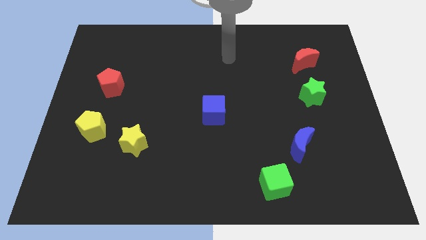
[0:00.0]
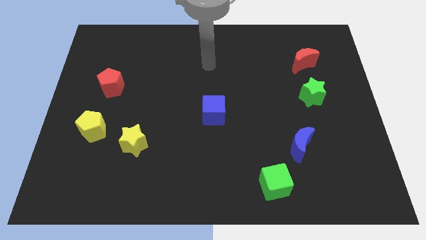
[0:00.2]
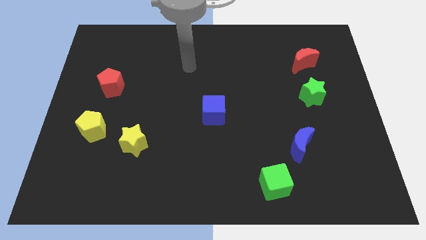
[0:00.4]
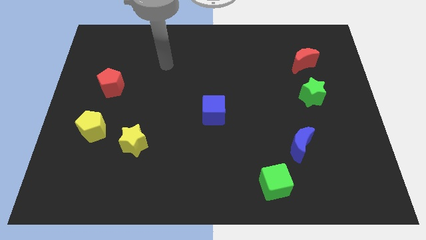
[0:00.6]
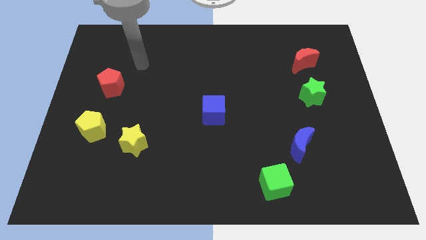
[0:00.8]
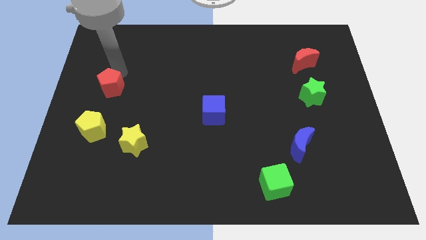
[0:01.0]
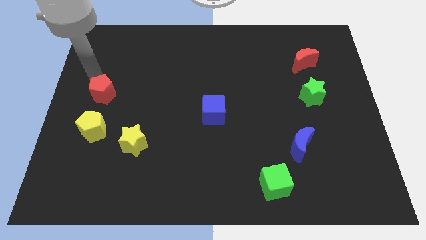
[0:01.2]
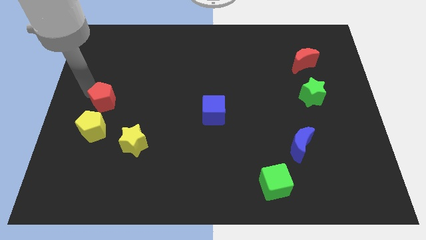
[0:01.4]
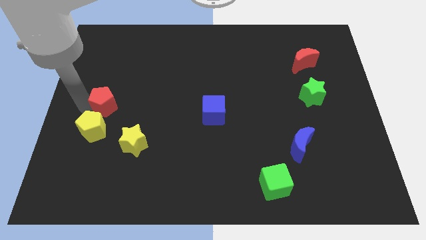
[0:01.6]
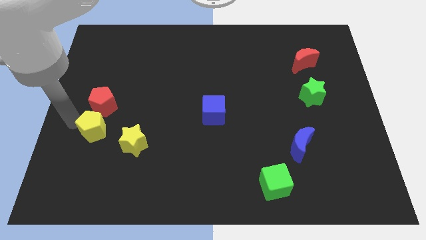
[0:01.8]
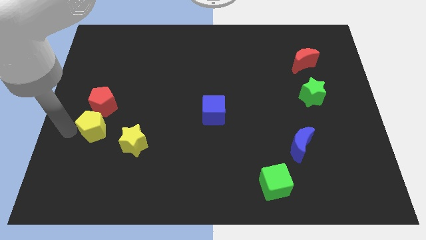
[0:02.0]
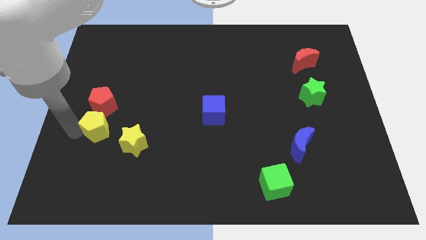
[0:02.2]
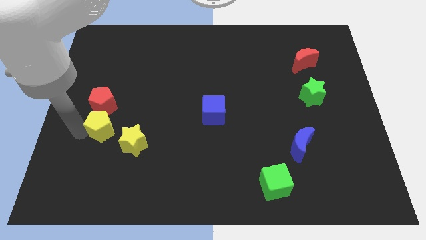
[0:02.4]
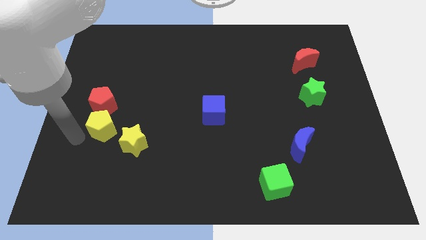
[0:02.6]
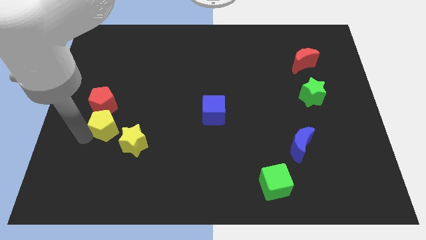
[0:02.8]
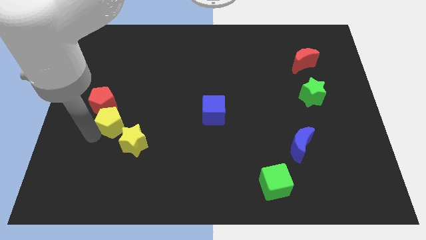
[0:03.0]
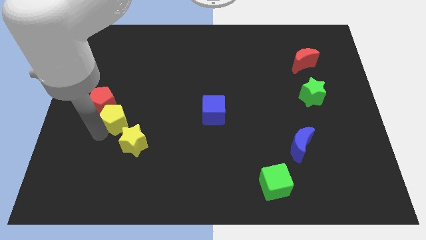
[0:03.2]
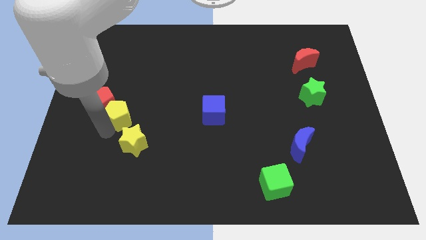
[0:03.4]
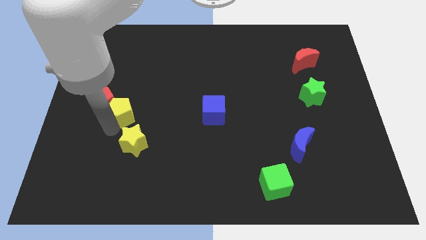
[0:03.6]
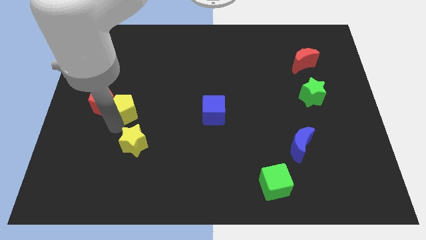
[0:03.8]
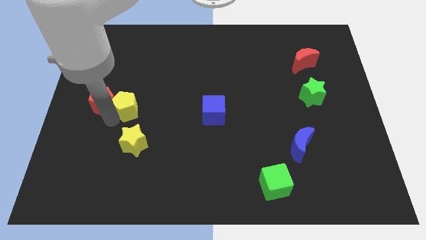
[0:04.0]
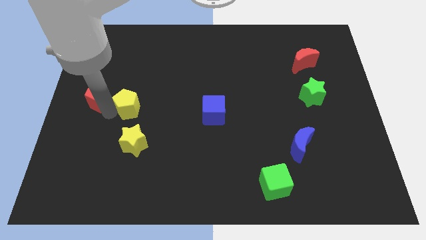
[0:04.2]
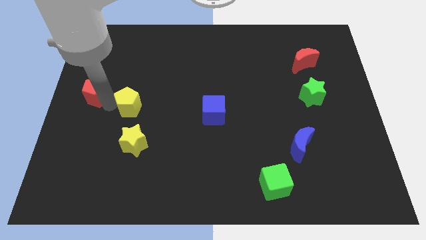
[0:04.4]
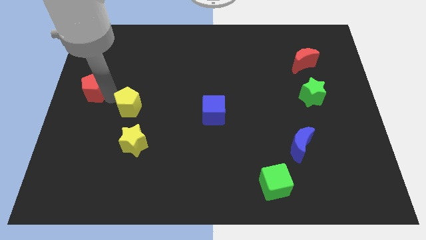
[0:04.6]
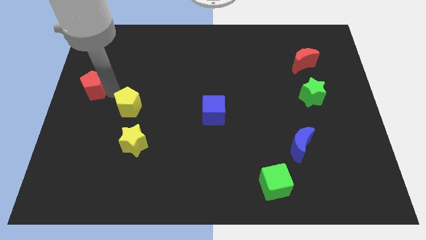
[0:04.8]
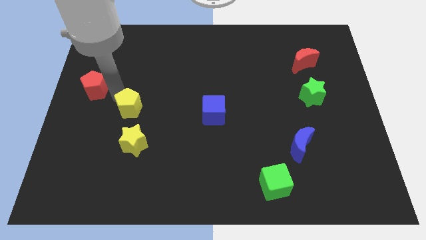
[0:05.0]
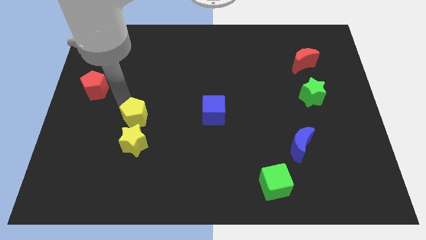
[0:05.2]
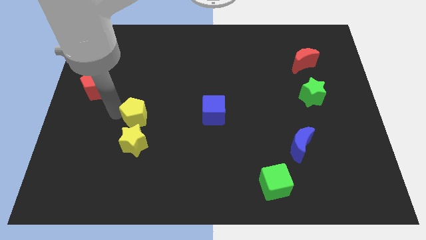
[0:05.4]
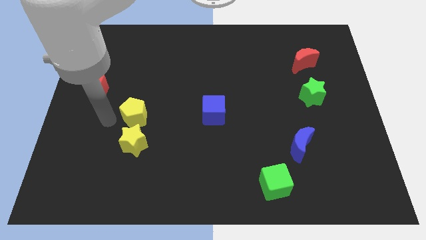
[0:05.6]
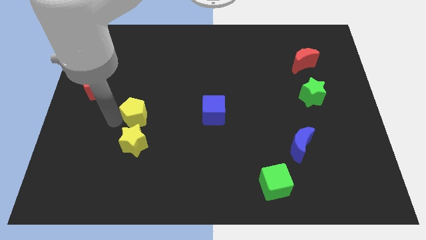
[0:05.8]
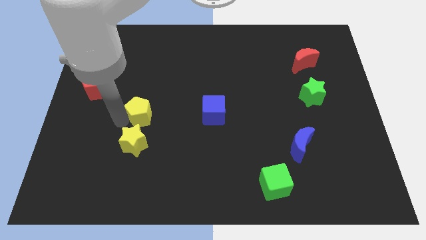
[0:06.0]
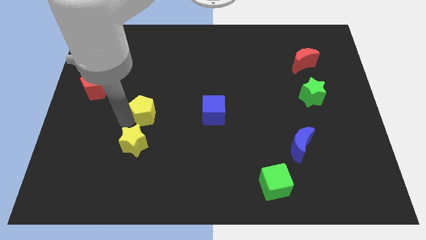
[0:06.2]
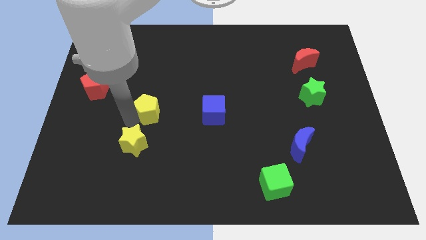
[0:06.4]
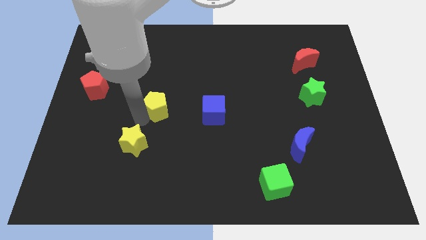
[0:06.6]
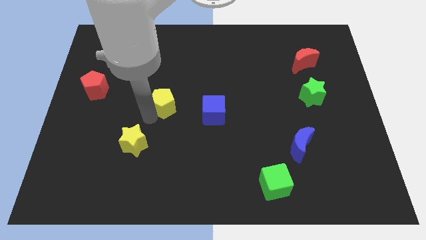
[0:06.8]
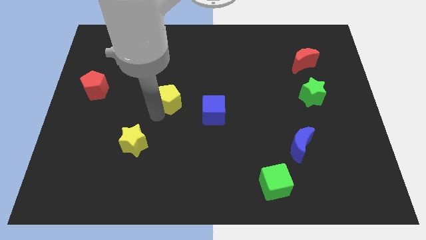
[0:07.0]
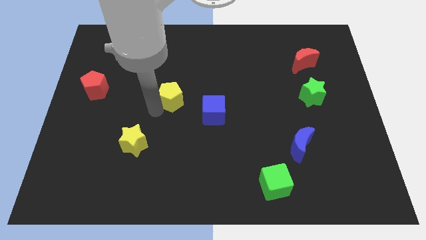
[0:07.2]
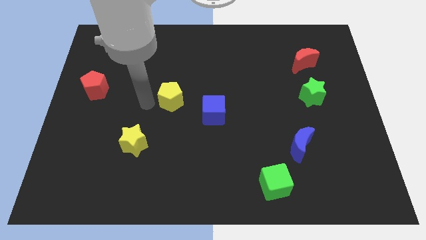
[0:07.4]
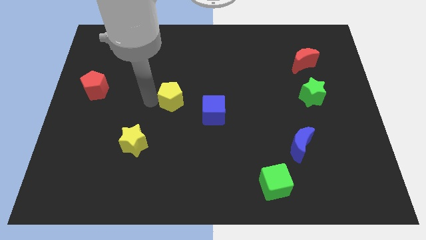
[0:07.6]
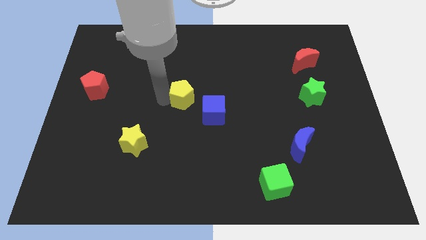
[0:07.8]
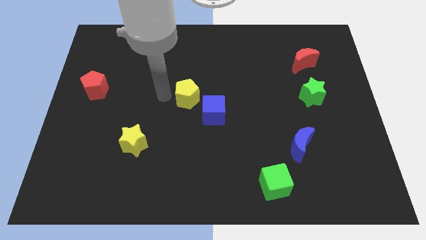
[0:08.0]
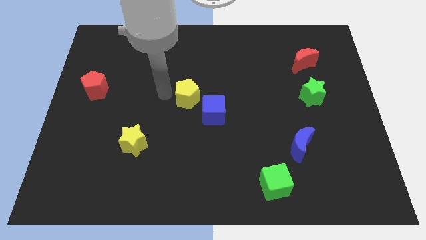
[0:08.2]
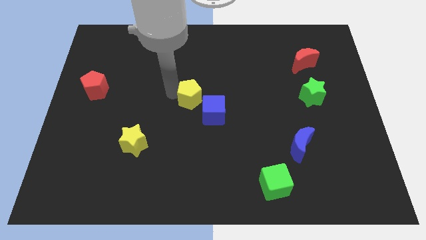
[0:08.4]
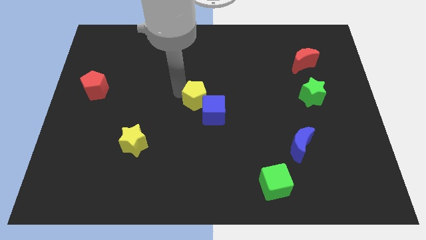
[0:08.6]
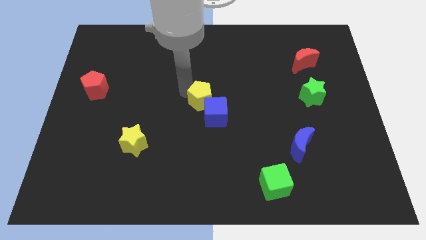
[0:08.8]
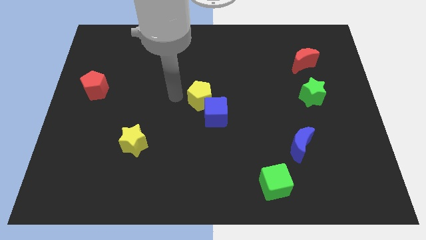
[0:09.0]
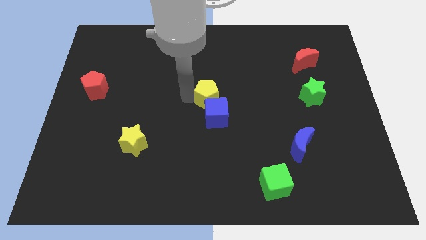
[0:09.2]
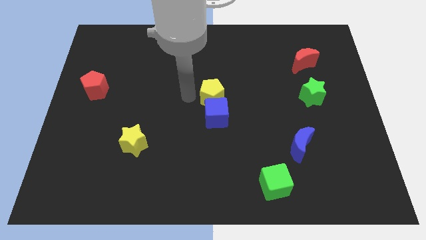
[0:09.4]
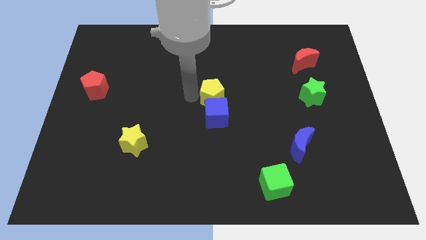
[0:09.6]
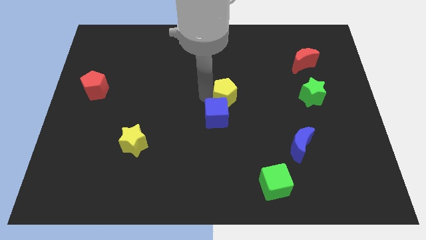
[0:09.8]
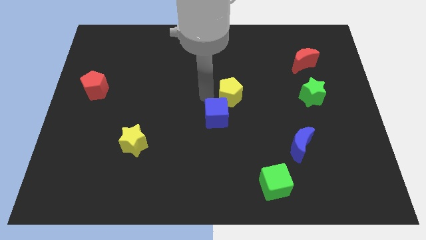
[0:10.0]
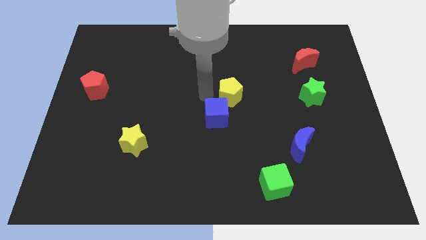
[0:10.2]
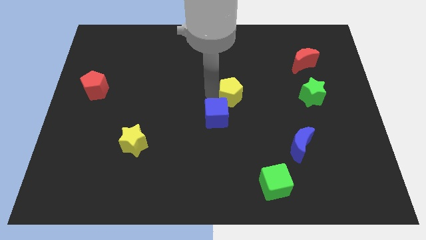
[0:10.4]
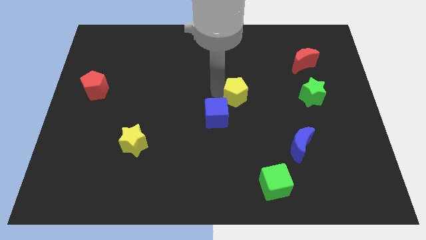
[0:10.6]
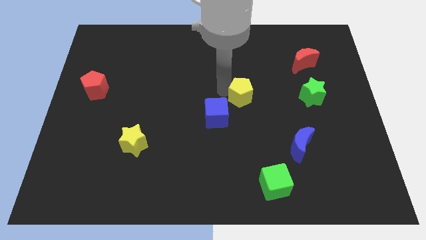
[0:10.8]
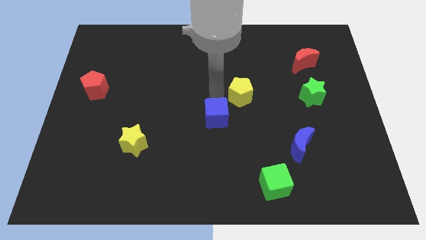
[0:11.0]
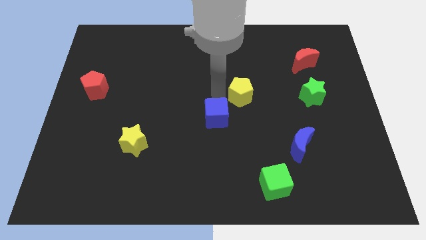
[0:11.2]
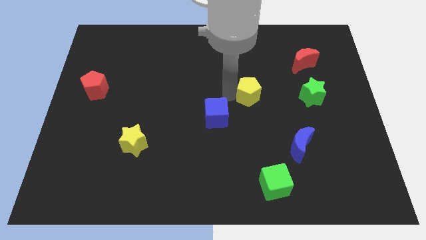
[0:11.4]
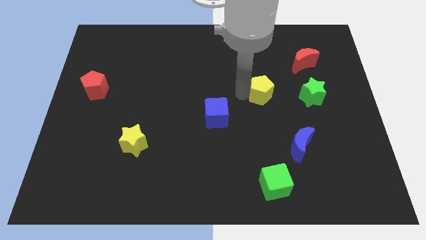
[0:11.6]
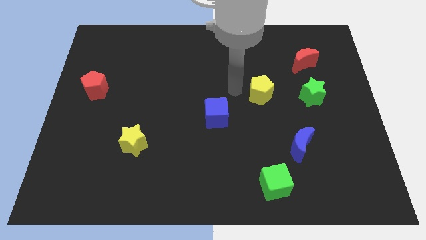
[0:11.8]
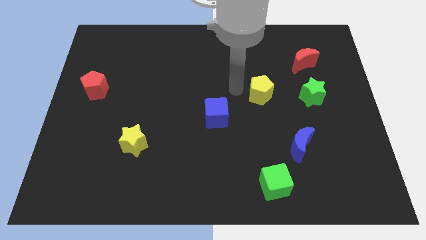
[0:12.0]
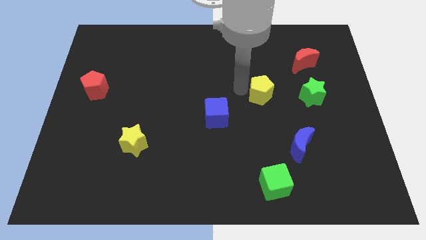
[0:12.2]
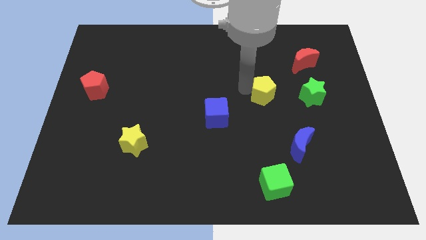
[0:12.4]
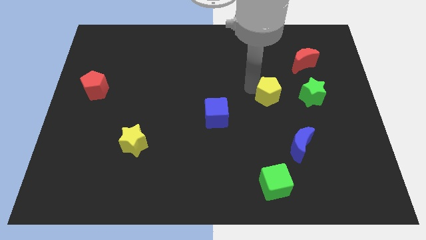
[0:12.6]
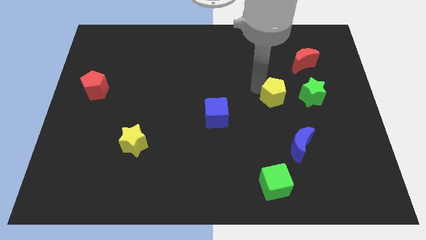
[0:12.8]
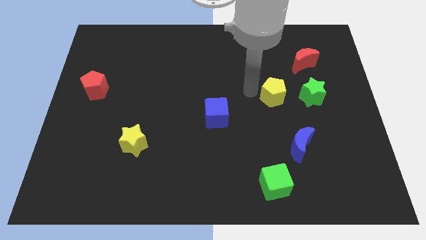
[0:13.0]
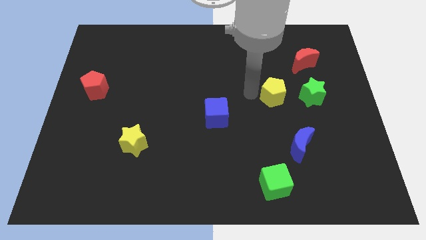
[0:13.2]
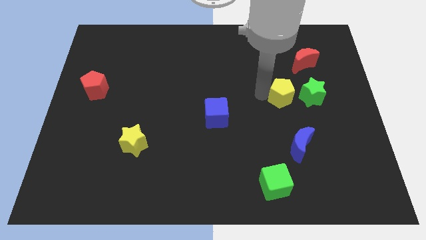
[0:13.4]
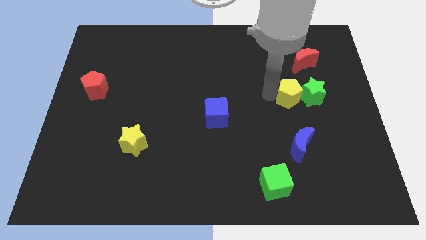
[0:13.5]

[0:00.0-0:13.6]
push the yellow pentagon close to the green star
